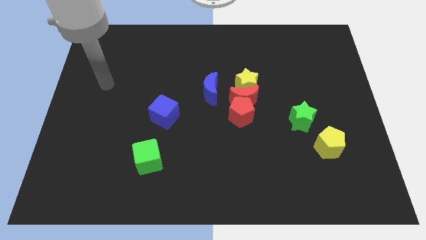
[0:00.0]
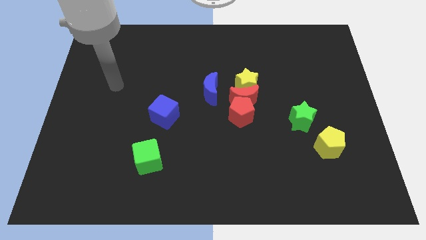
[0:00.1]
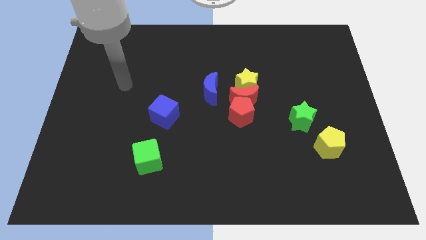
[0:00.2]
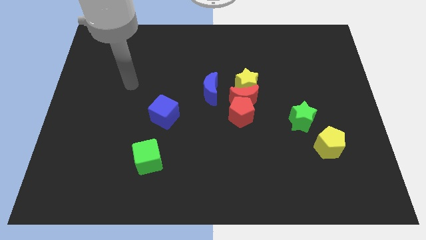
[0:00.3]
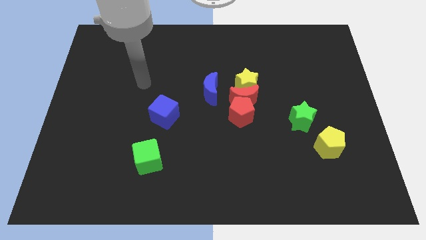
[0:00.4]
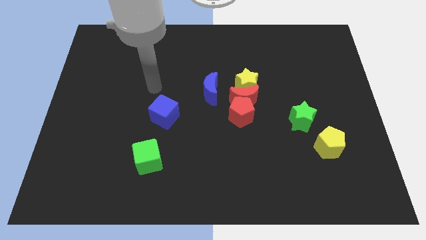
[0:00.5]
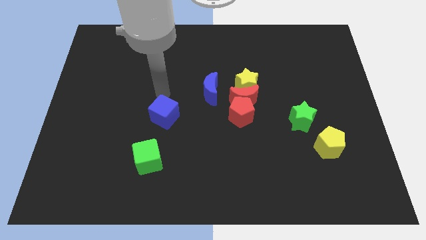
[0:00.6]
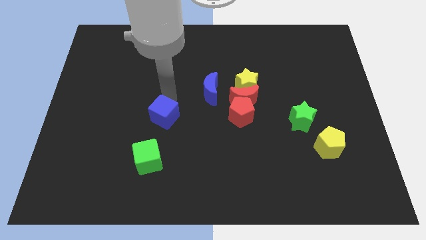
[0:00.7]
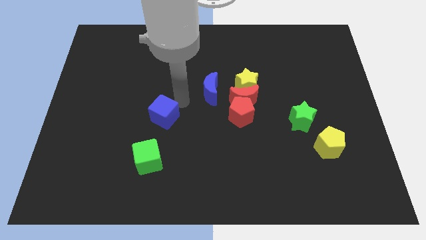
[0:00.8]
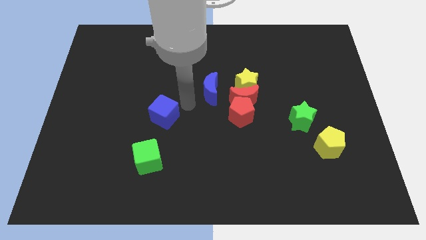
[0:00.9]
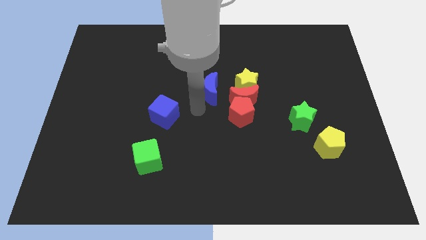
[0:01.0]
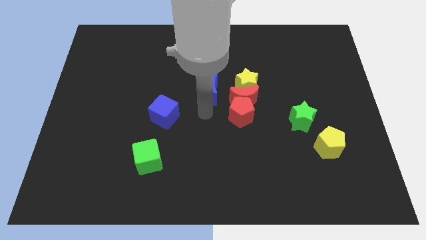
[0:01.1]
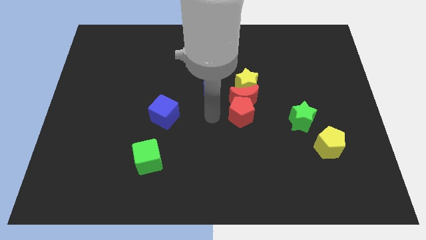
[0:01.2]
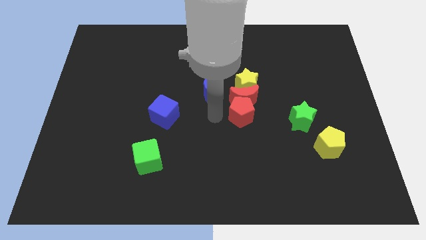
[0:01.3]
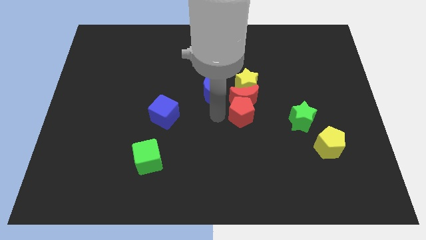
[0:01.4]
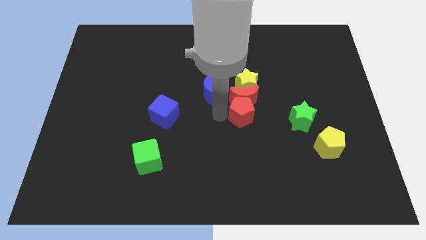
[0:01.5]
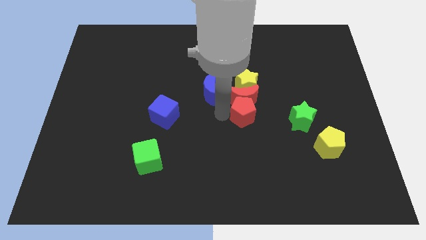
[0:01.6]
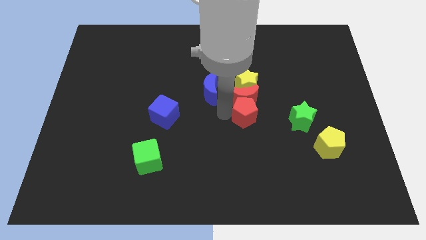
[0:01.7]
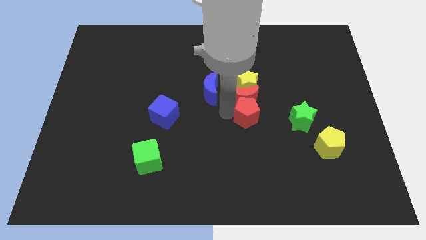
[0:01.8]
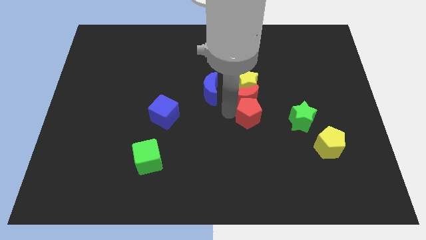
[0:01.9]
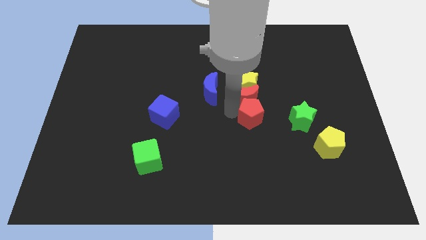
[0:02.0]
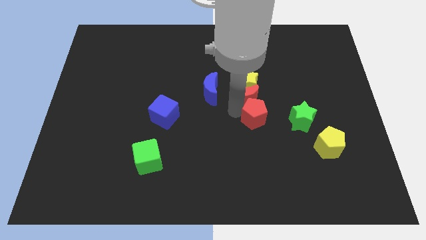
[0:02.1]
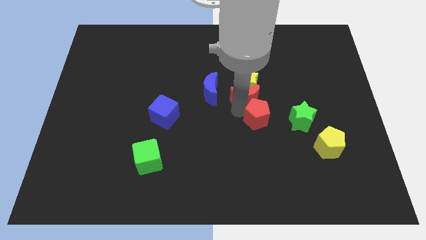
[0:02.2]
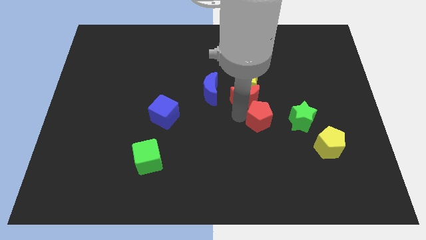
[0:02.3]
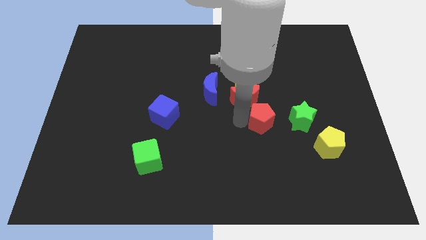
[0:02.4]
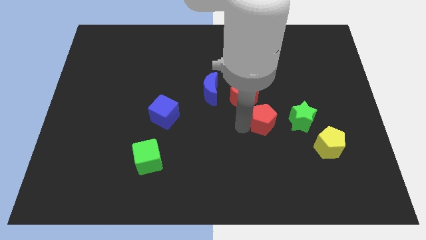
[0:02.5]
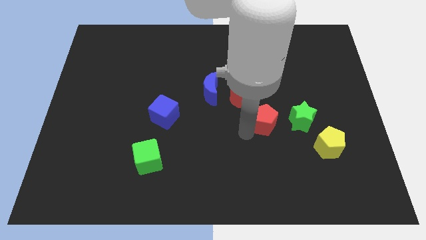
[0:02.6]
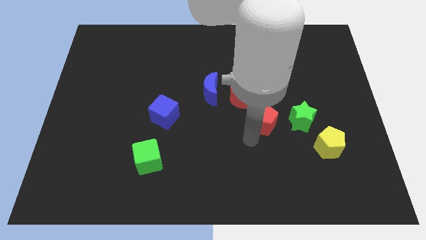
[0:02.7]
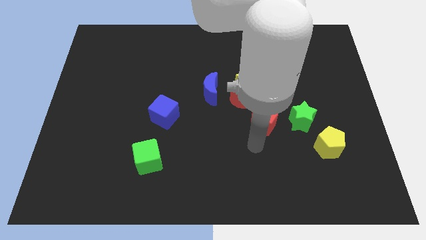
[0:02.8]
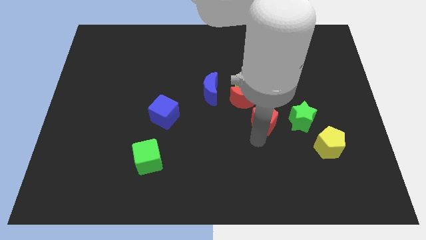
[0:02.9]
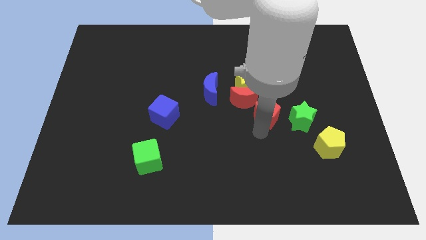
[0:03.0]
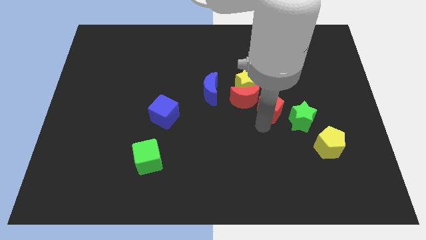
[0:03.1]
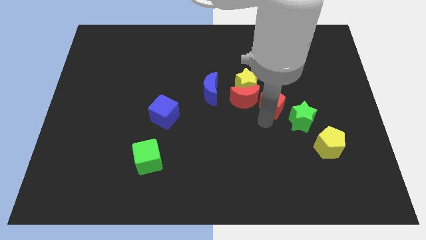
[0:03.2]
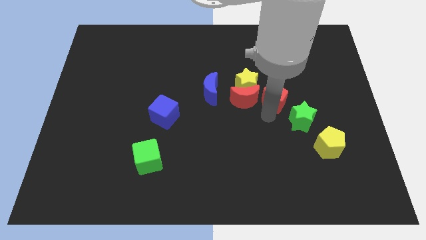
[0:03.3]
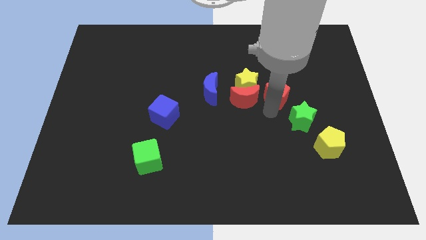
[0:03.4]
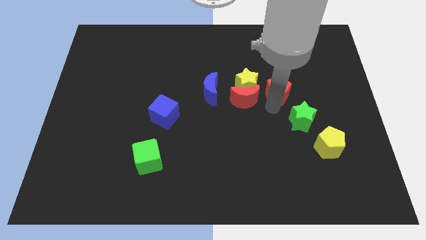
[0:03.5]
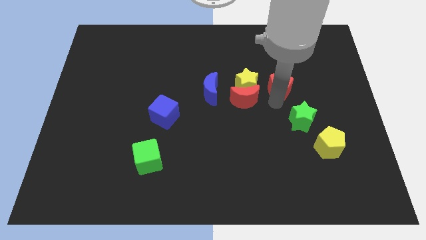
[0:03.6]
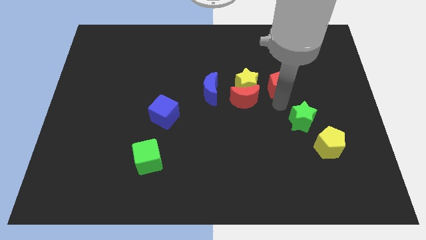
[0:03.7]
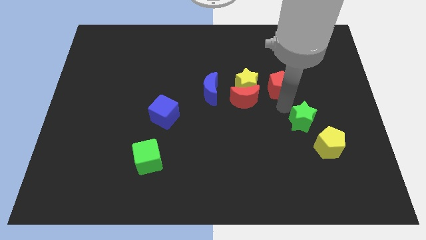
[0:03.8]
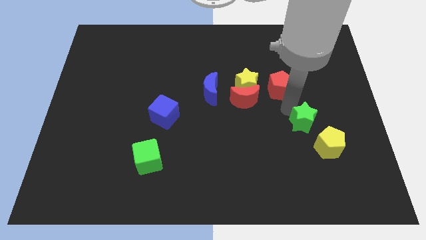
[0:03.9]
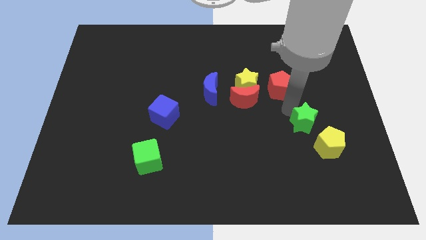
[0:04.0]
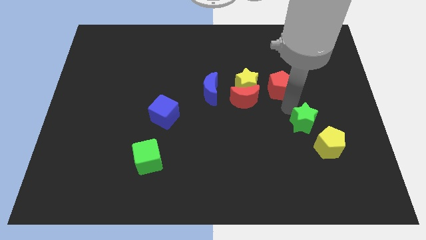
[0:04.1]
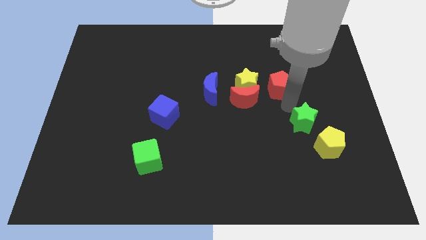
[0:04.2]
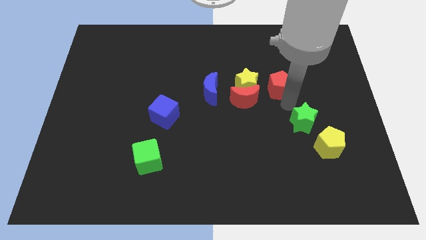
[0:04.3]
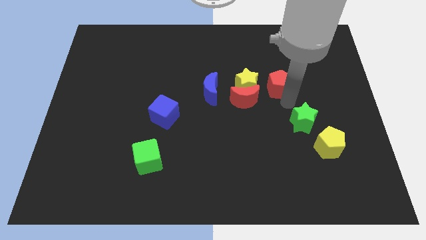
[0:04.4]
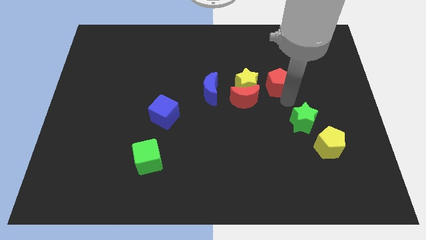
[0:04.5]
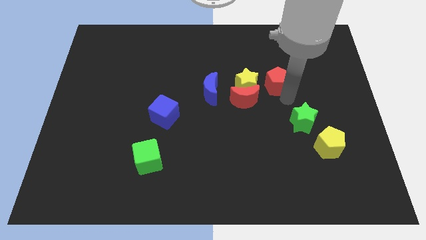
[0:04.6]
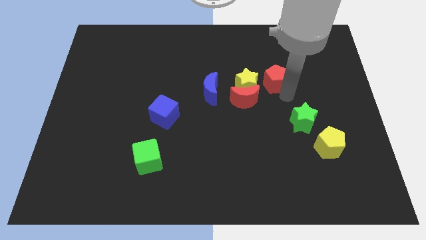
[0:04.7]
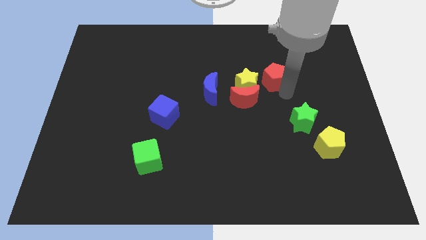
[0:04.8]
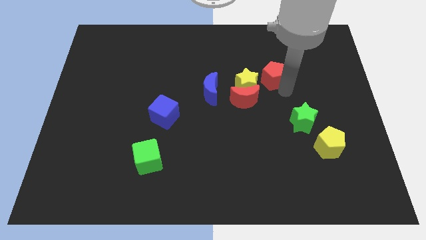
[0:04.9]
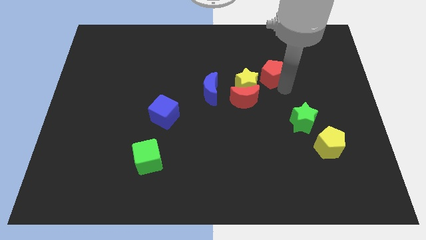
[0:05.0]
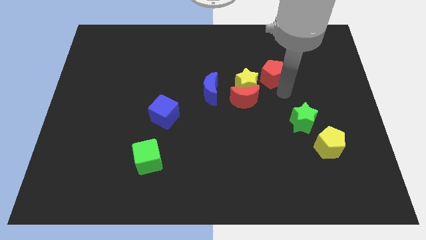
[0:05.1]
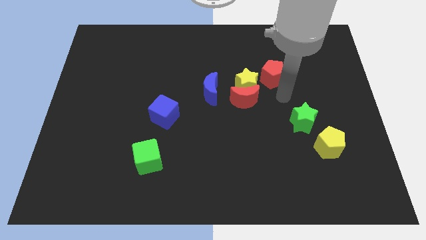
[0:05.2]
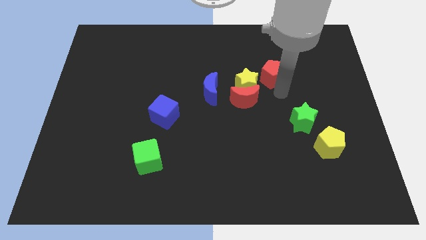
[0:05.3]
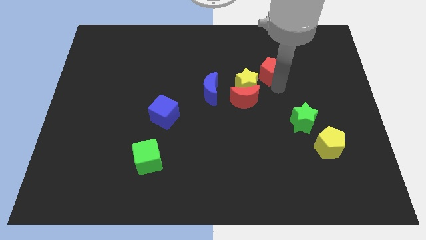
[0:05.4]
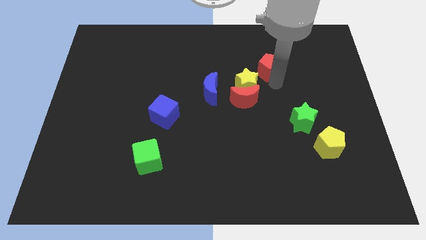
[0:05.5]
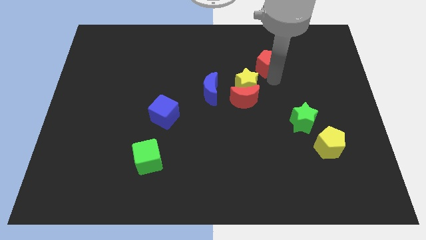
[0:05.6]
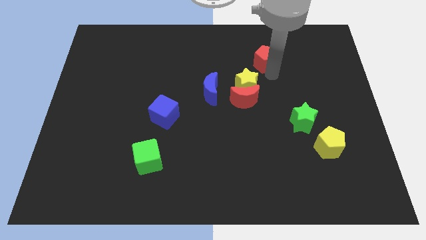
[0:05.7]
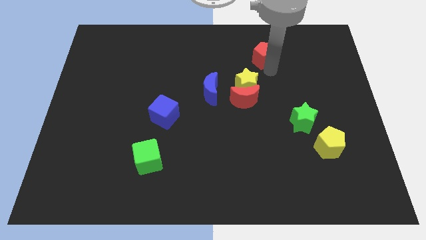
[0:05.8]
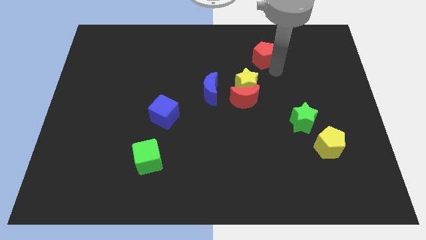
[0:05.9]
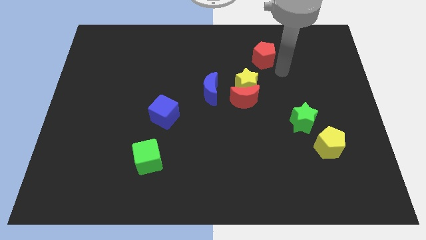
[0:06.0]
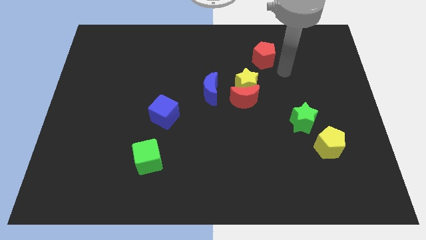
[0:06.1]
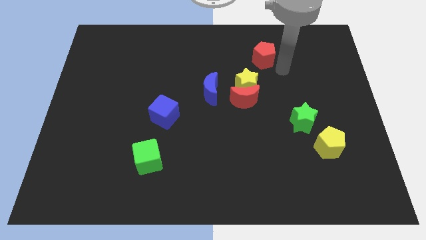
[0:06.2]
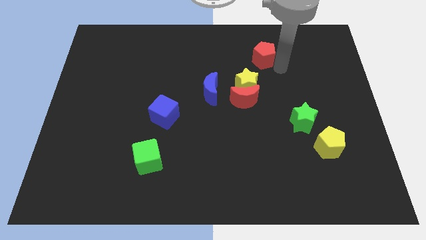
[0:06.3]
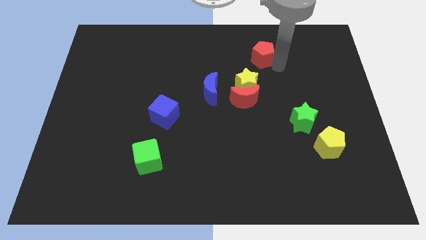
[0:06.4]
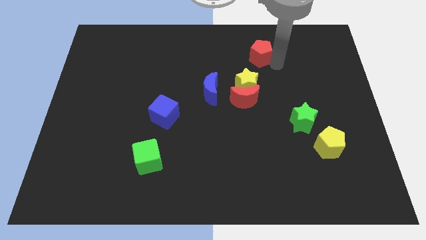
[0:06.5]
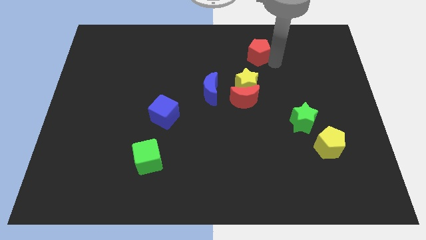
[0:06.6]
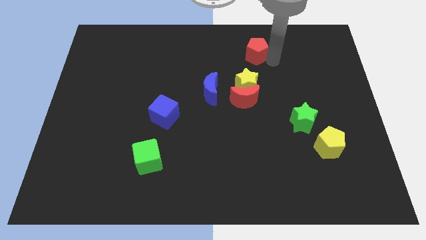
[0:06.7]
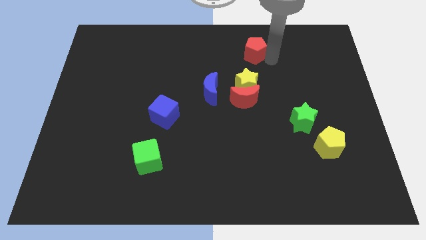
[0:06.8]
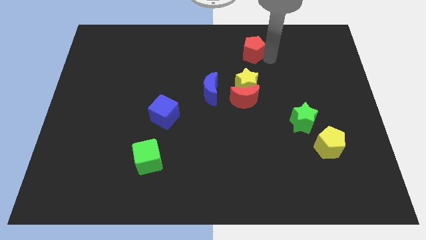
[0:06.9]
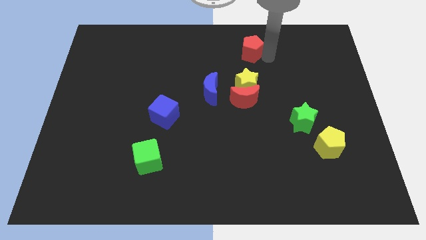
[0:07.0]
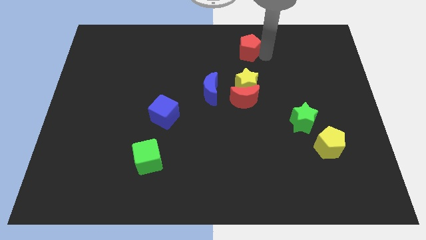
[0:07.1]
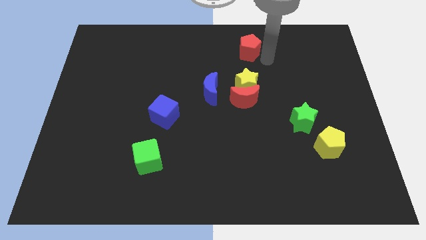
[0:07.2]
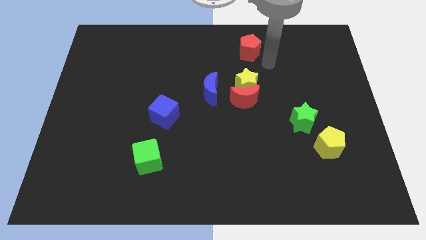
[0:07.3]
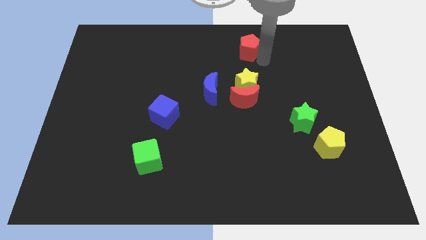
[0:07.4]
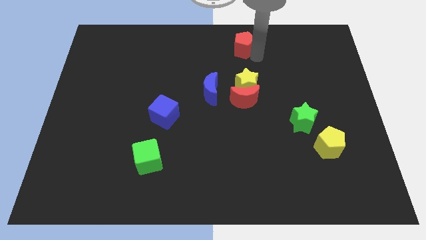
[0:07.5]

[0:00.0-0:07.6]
move the red pentagon to the towards your base
